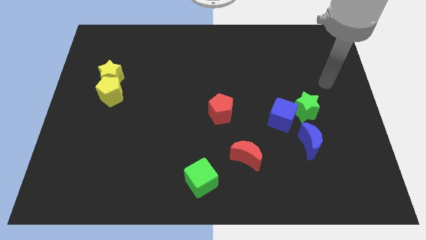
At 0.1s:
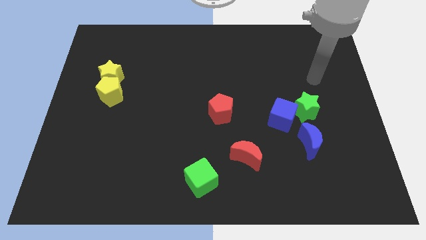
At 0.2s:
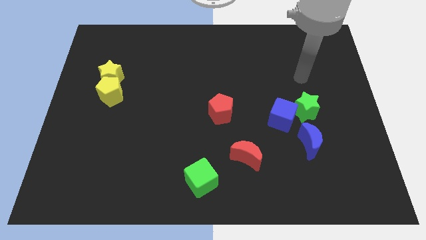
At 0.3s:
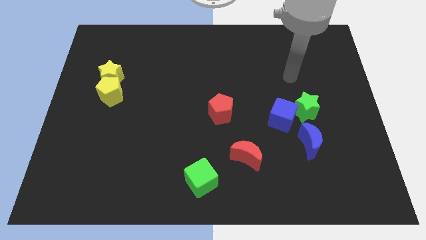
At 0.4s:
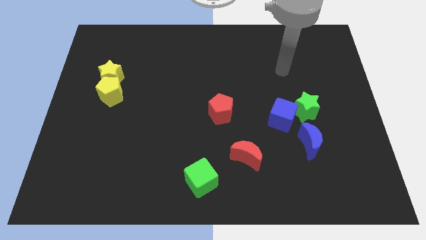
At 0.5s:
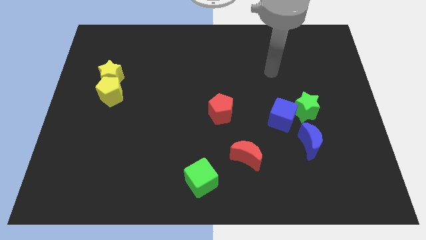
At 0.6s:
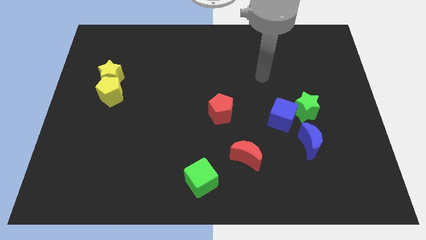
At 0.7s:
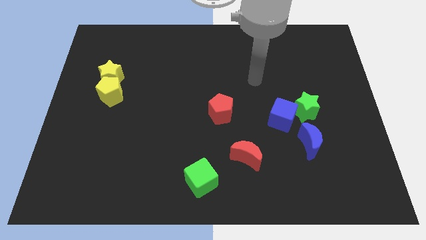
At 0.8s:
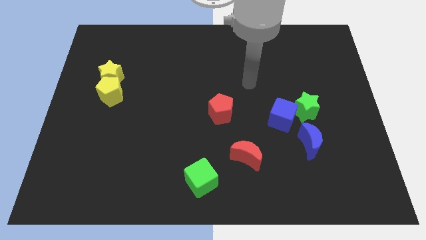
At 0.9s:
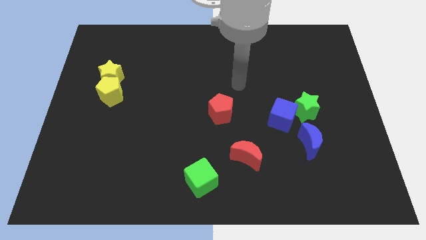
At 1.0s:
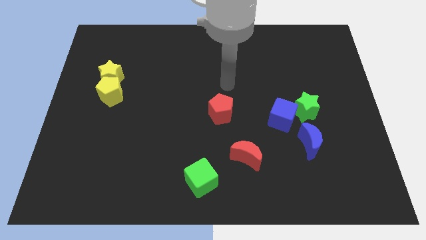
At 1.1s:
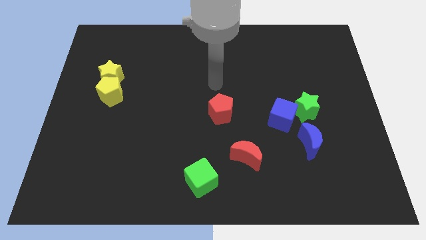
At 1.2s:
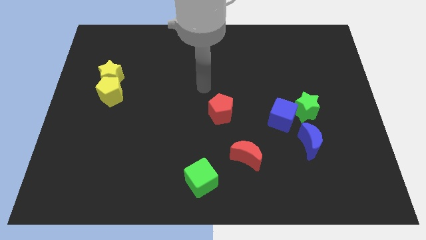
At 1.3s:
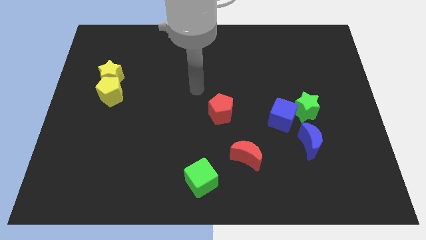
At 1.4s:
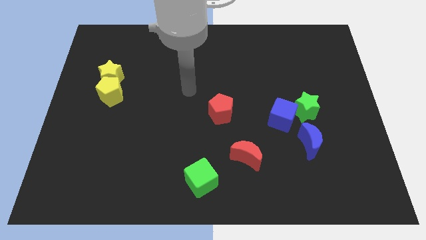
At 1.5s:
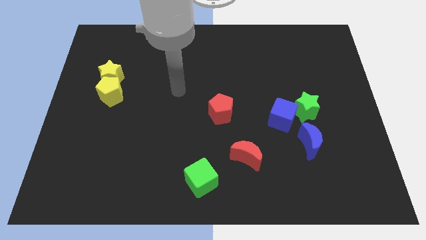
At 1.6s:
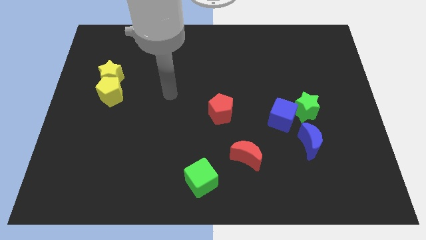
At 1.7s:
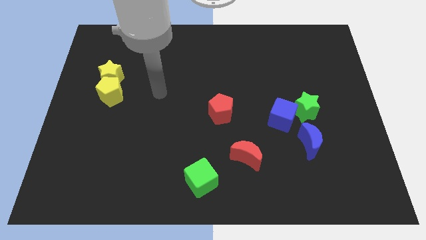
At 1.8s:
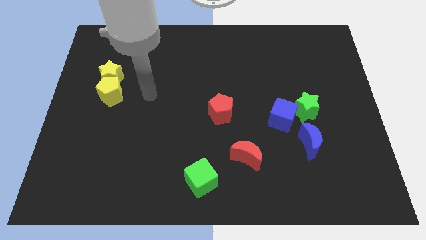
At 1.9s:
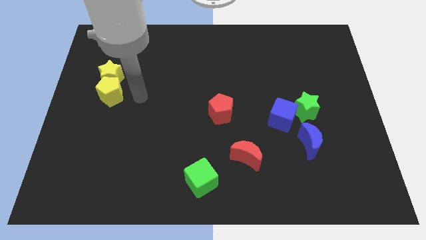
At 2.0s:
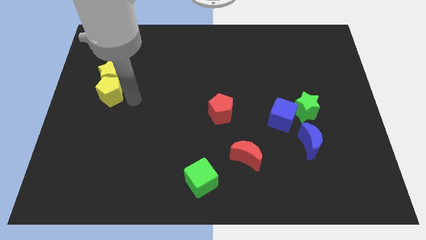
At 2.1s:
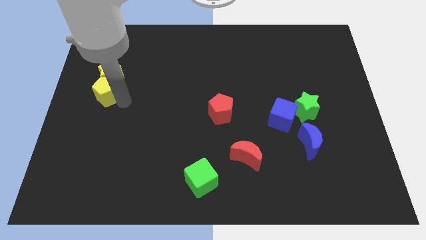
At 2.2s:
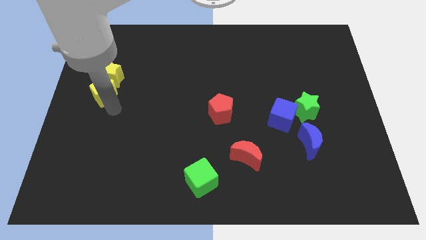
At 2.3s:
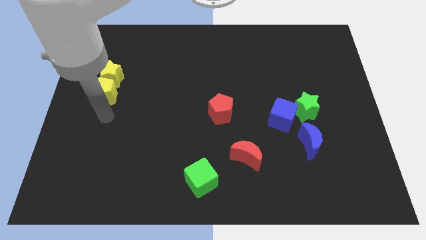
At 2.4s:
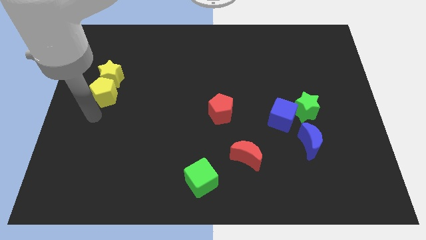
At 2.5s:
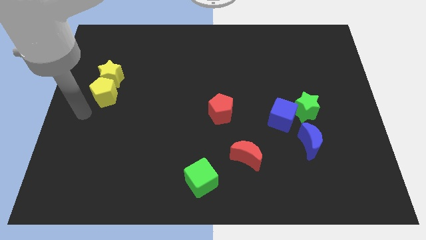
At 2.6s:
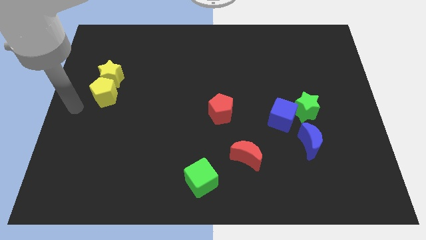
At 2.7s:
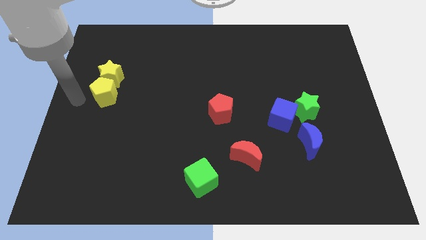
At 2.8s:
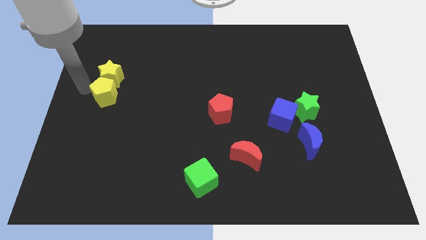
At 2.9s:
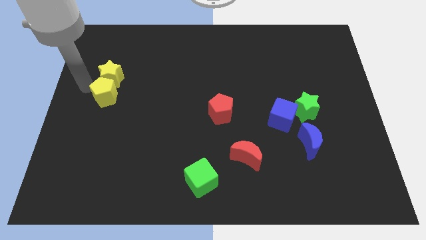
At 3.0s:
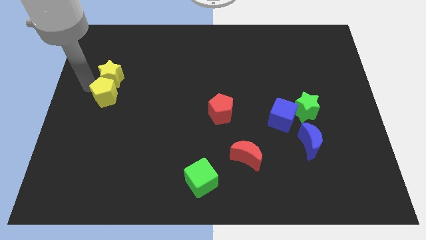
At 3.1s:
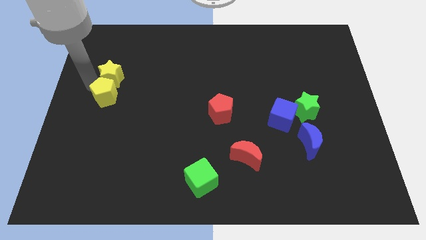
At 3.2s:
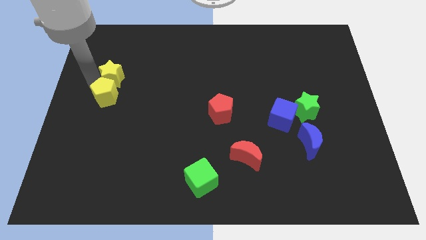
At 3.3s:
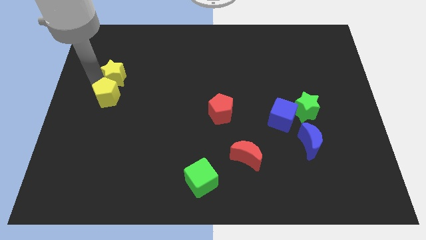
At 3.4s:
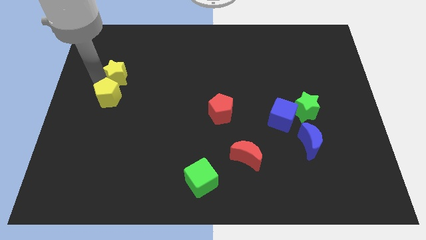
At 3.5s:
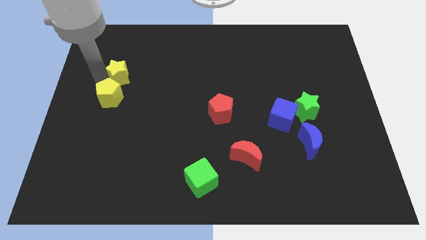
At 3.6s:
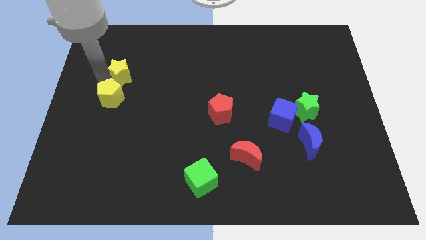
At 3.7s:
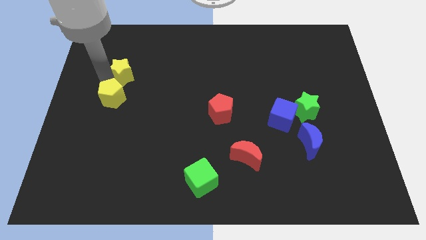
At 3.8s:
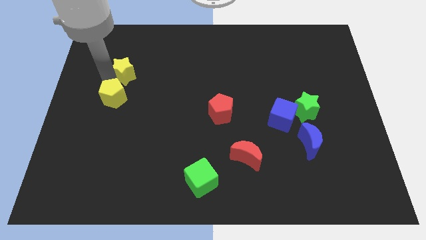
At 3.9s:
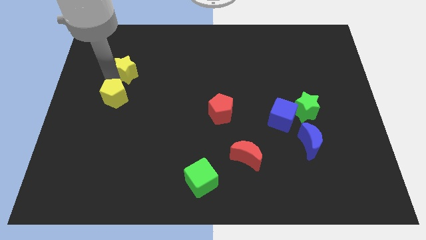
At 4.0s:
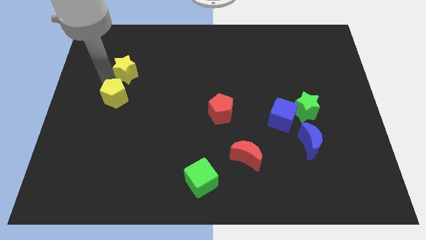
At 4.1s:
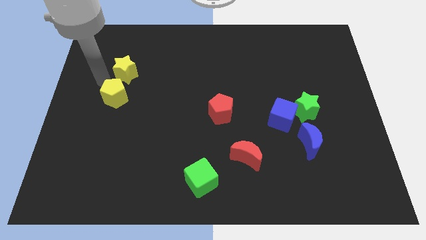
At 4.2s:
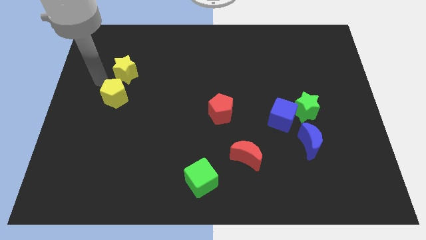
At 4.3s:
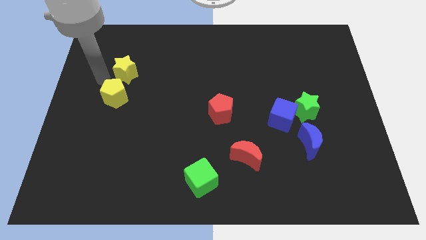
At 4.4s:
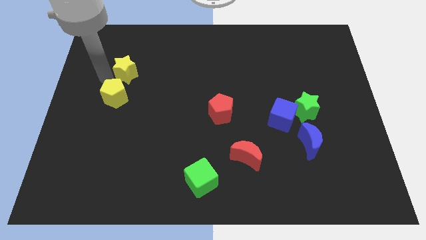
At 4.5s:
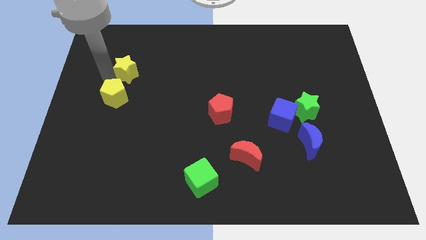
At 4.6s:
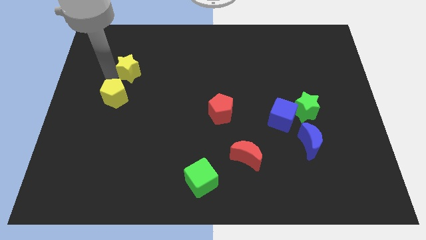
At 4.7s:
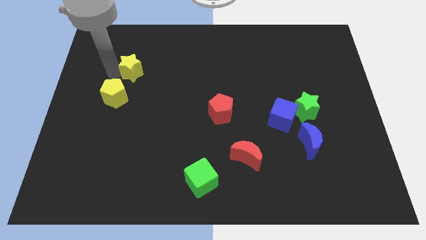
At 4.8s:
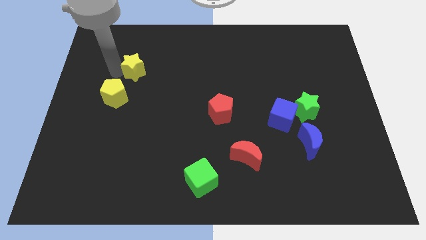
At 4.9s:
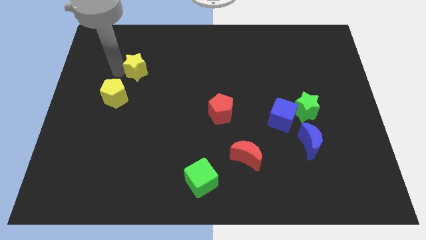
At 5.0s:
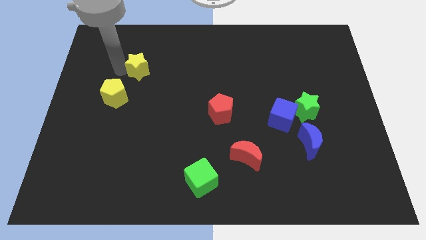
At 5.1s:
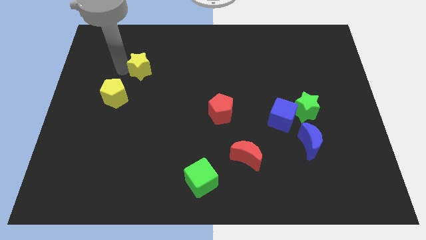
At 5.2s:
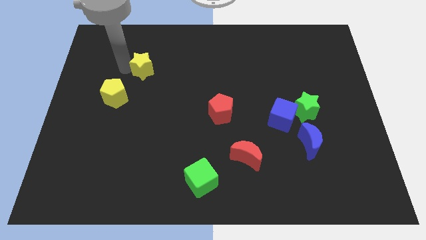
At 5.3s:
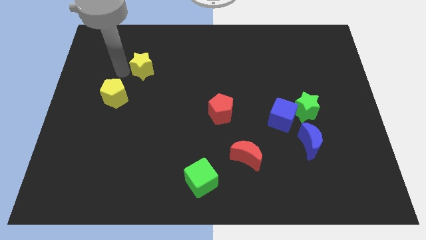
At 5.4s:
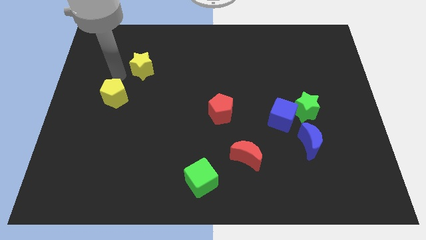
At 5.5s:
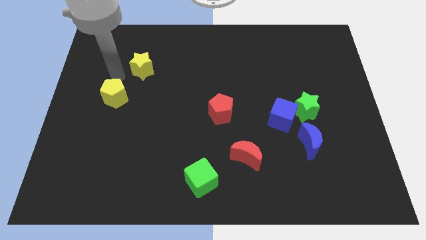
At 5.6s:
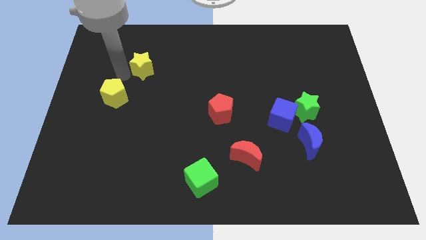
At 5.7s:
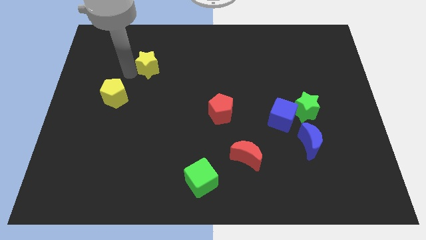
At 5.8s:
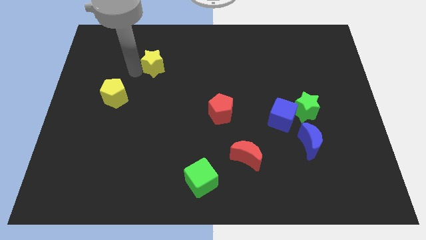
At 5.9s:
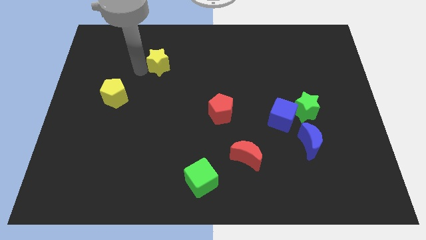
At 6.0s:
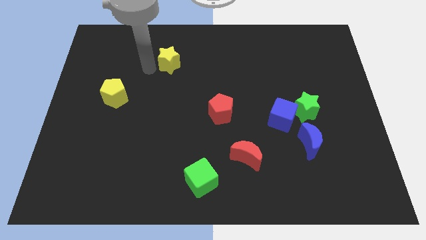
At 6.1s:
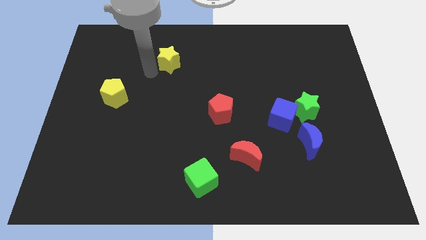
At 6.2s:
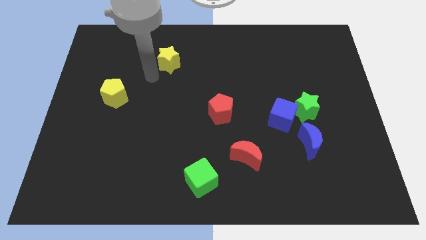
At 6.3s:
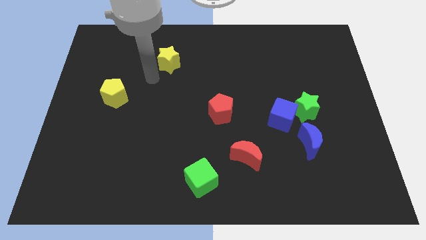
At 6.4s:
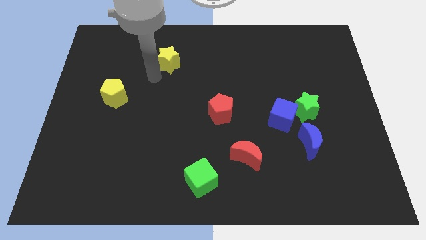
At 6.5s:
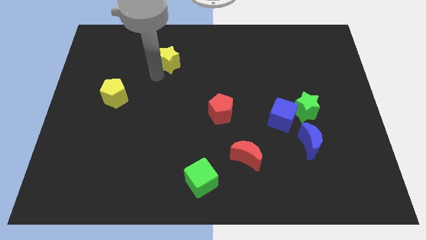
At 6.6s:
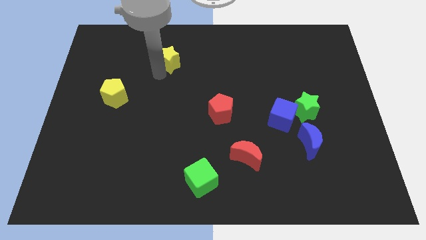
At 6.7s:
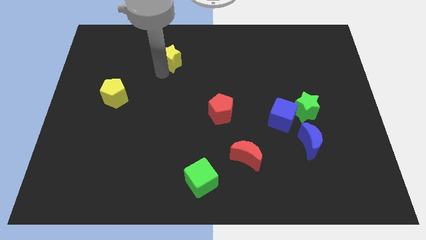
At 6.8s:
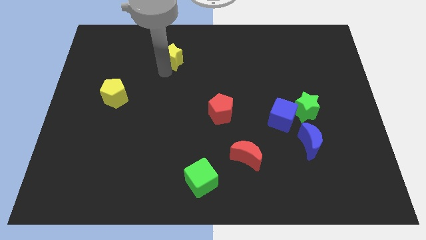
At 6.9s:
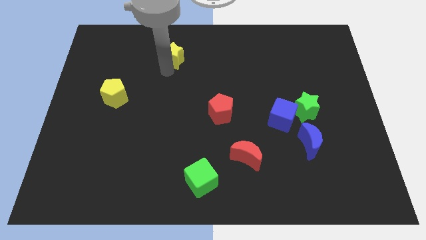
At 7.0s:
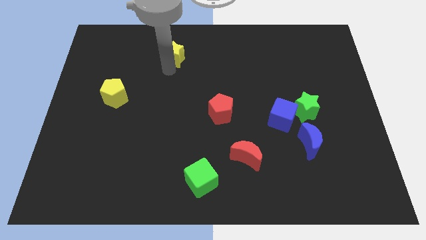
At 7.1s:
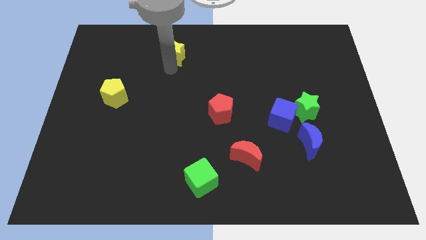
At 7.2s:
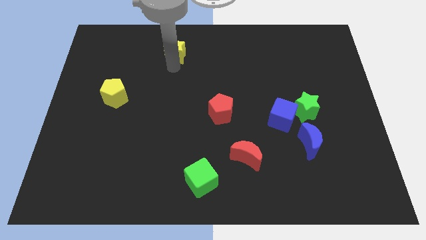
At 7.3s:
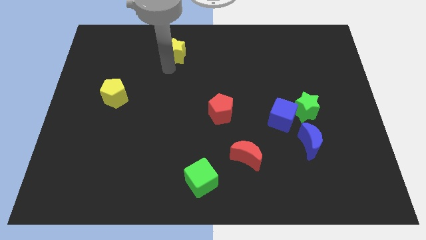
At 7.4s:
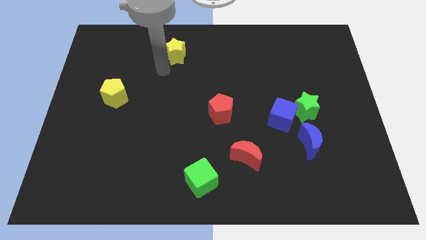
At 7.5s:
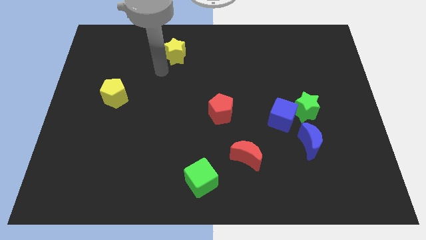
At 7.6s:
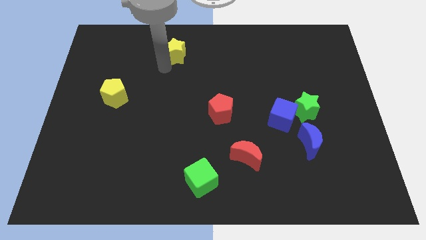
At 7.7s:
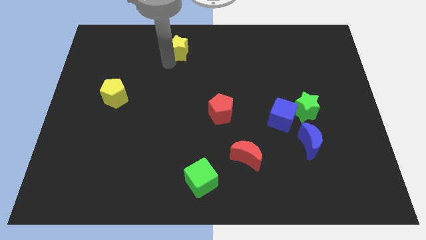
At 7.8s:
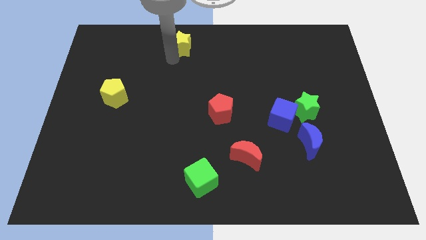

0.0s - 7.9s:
push the yellow star to the top side
